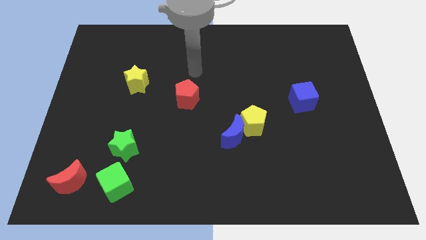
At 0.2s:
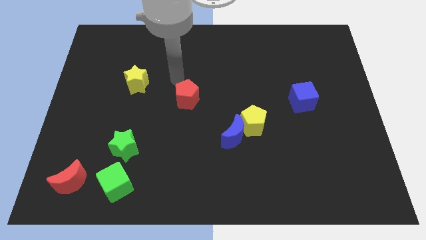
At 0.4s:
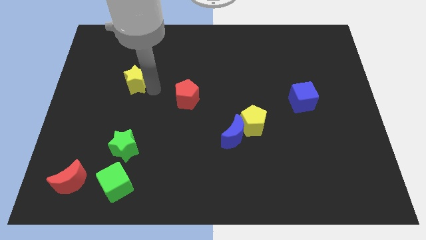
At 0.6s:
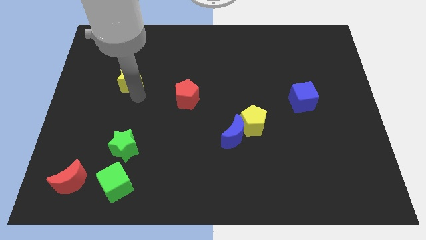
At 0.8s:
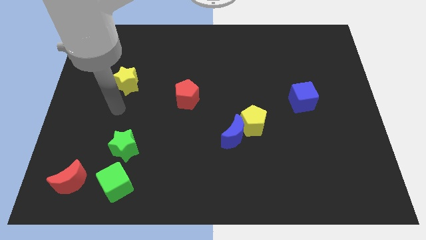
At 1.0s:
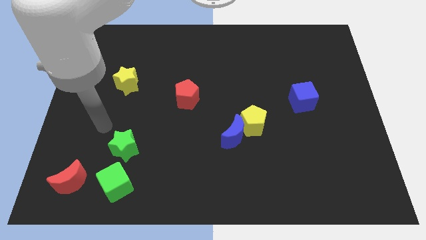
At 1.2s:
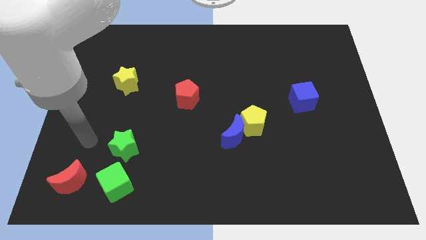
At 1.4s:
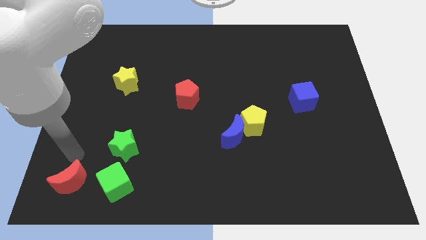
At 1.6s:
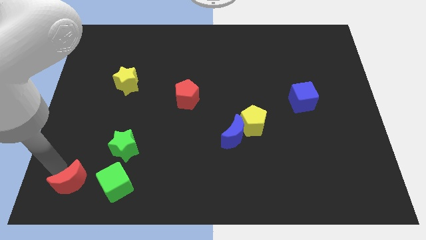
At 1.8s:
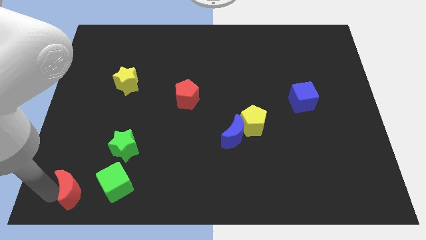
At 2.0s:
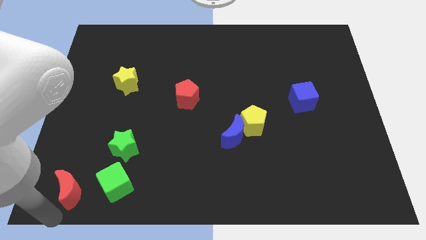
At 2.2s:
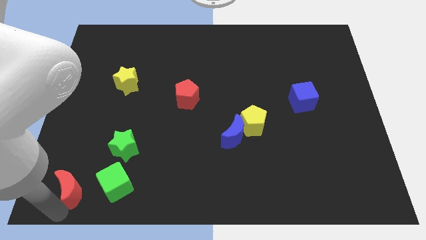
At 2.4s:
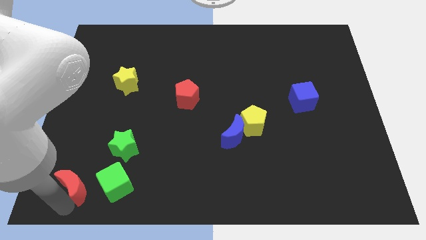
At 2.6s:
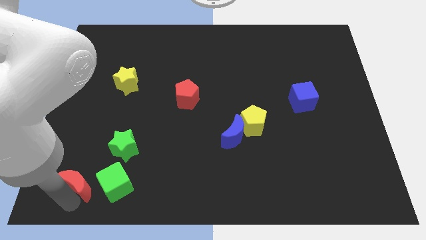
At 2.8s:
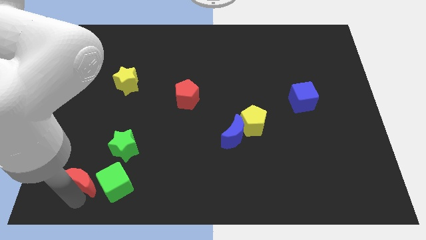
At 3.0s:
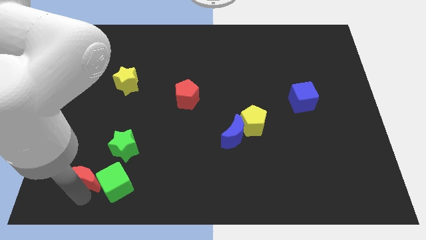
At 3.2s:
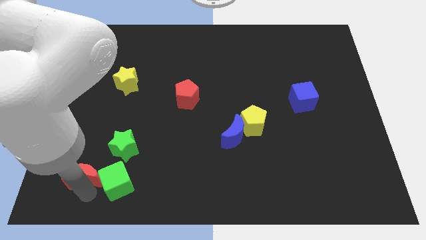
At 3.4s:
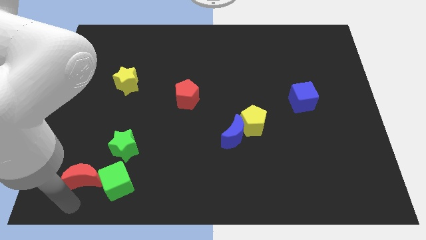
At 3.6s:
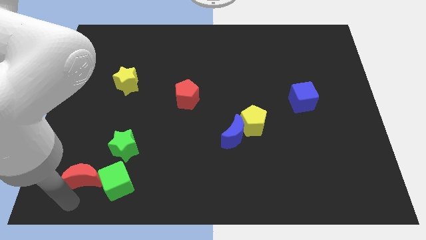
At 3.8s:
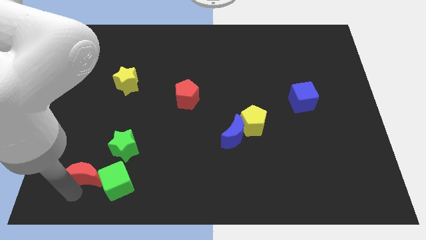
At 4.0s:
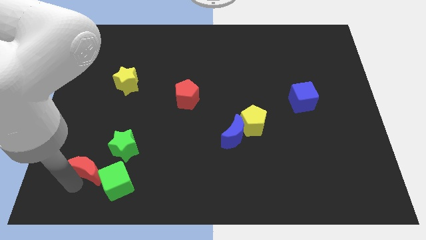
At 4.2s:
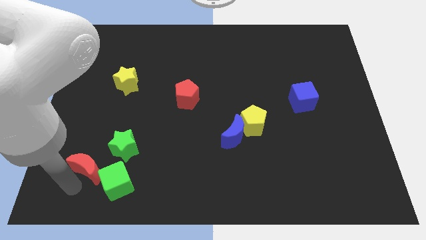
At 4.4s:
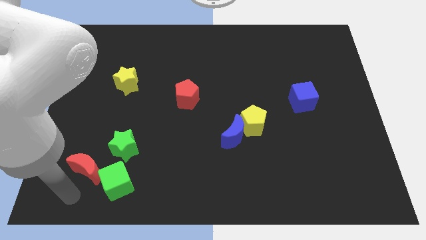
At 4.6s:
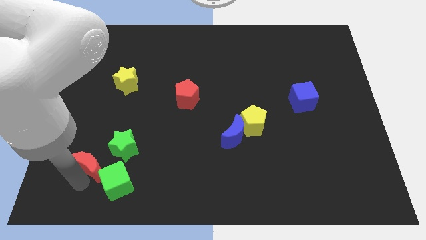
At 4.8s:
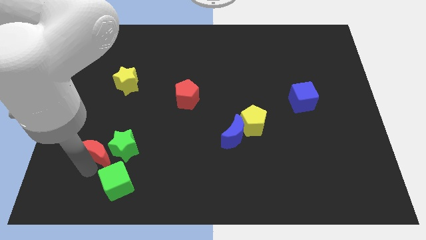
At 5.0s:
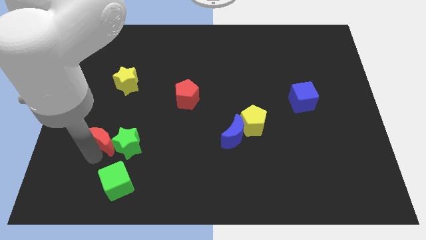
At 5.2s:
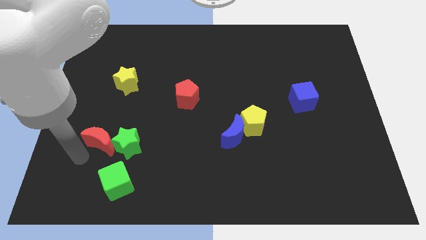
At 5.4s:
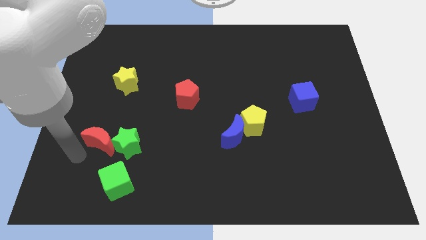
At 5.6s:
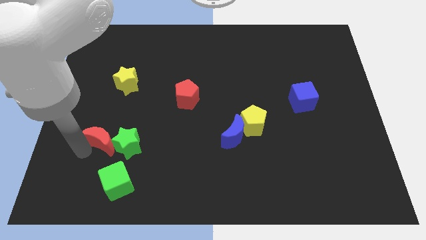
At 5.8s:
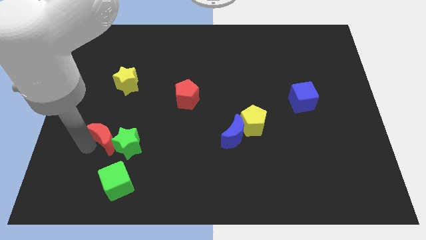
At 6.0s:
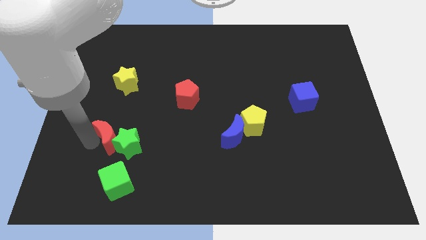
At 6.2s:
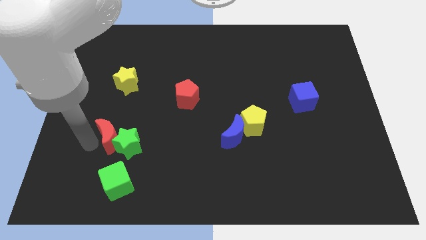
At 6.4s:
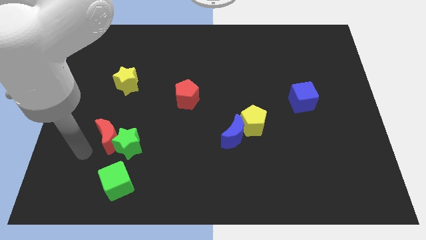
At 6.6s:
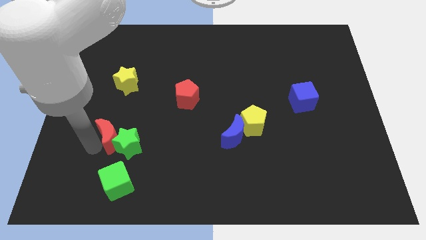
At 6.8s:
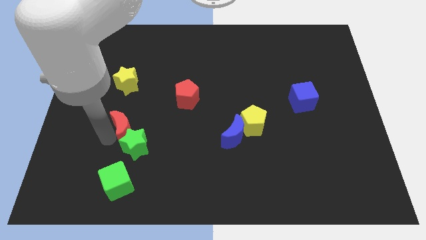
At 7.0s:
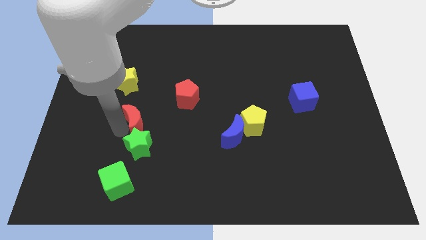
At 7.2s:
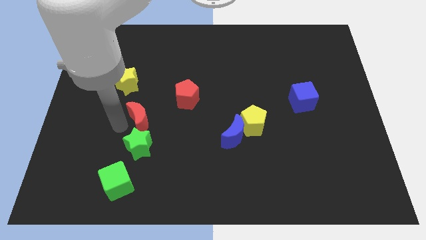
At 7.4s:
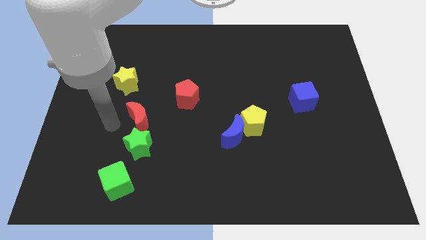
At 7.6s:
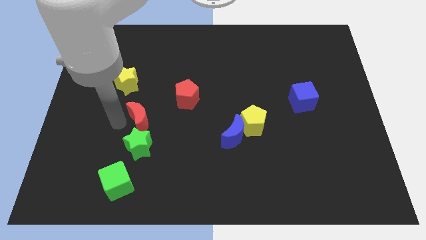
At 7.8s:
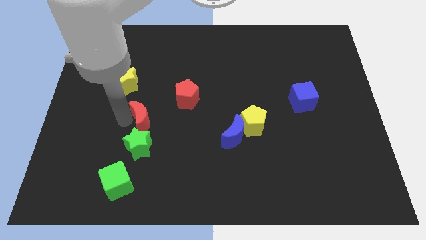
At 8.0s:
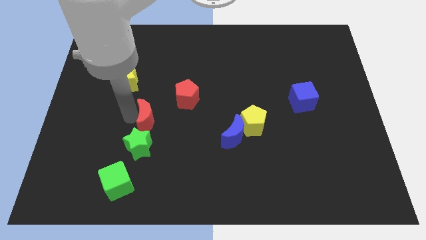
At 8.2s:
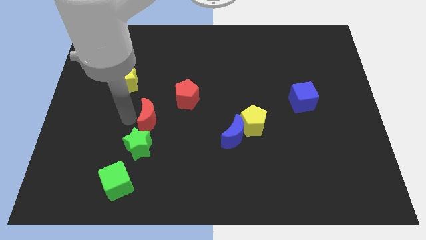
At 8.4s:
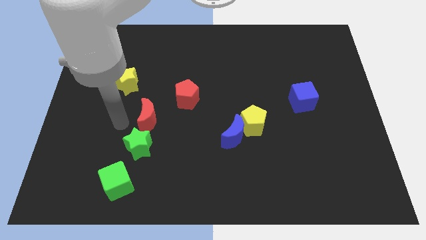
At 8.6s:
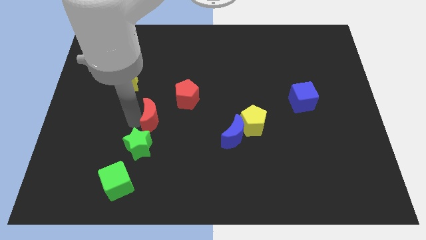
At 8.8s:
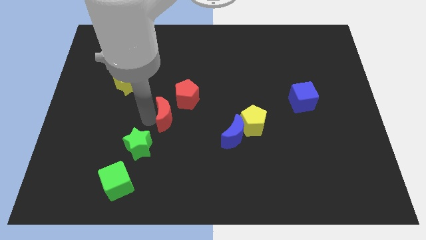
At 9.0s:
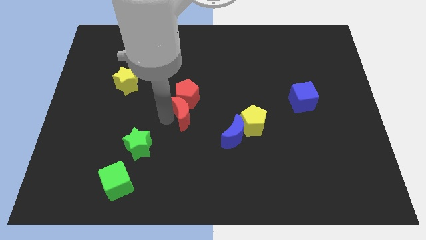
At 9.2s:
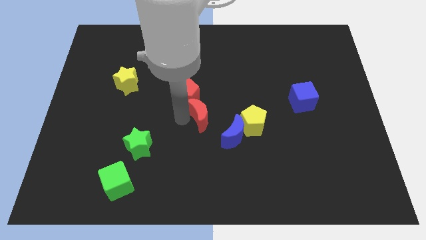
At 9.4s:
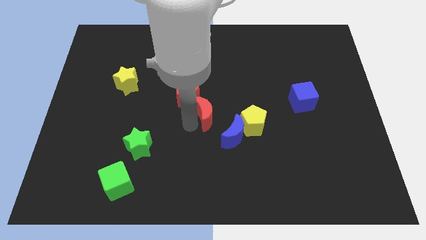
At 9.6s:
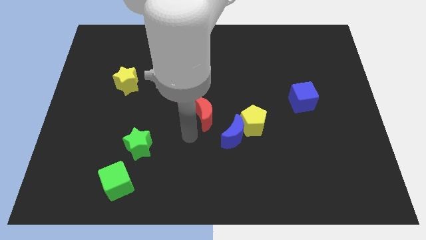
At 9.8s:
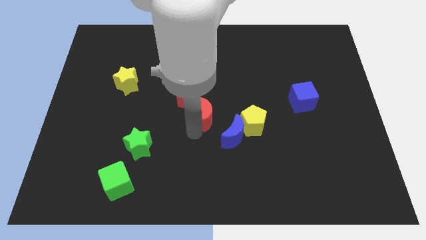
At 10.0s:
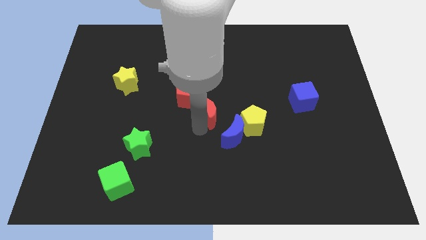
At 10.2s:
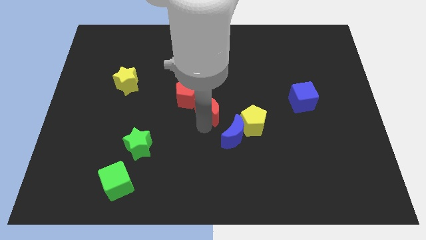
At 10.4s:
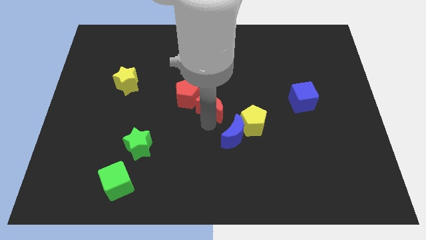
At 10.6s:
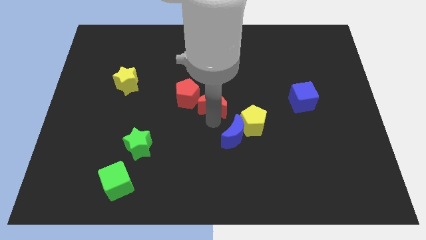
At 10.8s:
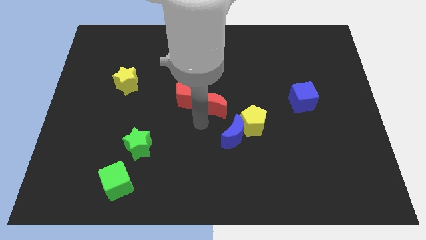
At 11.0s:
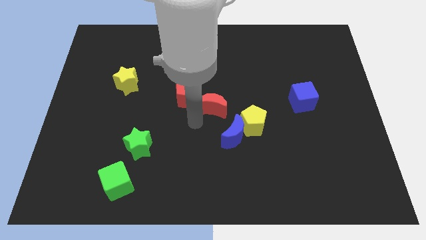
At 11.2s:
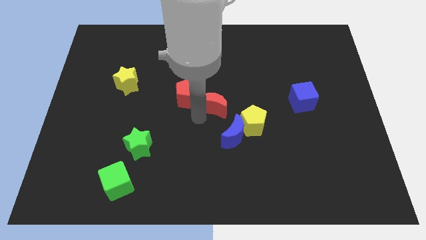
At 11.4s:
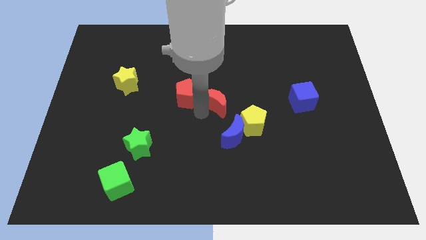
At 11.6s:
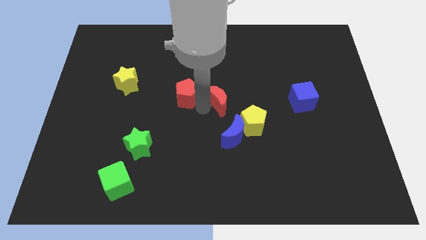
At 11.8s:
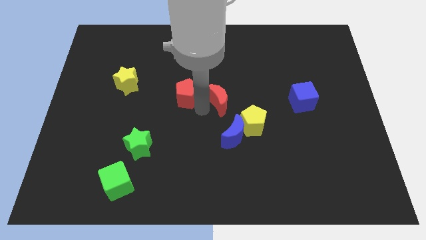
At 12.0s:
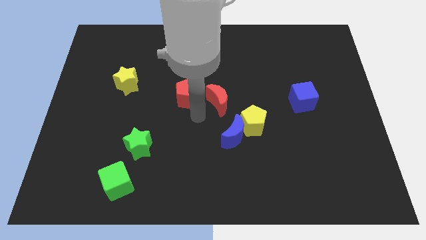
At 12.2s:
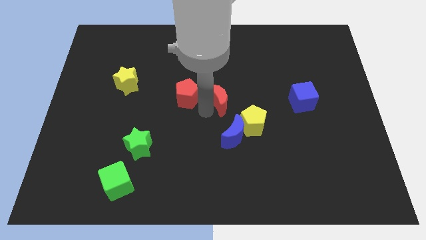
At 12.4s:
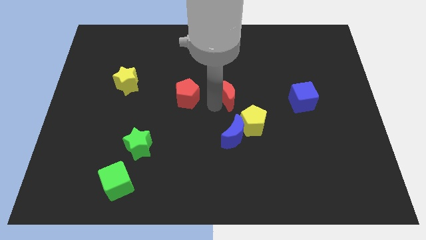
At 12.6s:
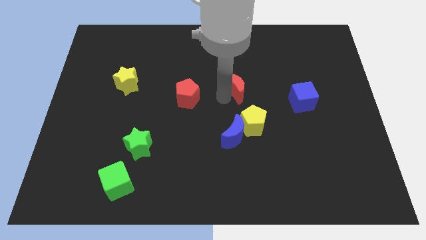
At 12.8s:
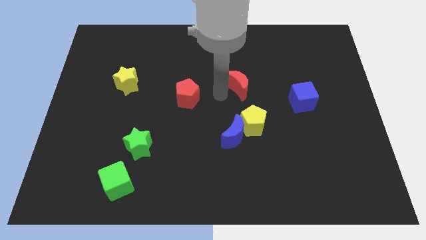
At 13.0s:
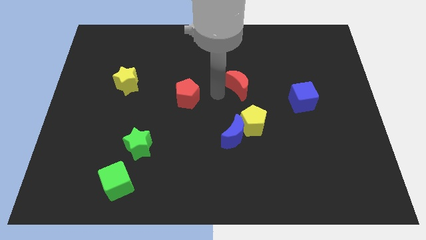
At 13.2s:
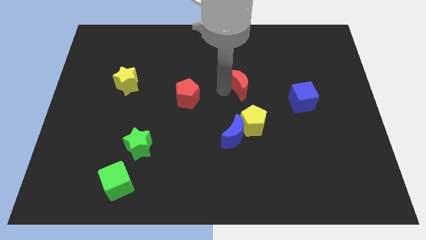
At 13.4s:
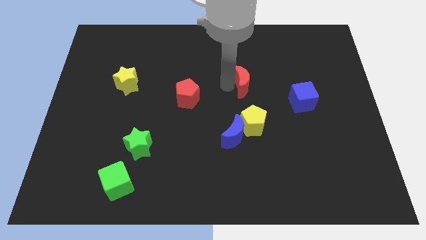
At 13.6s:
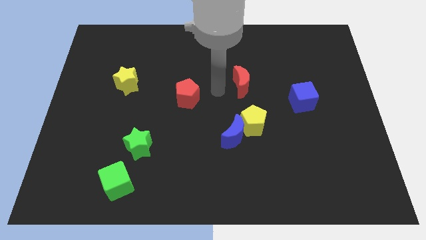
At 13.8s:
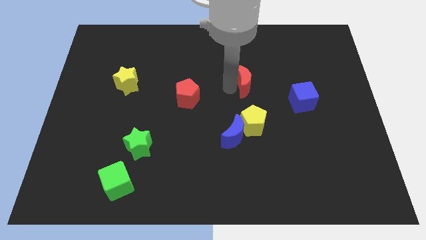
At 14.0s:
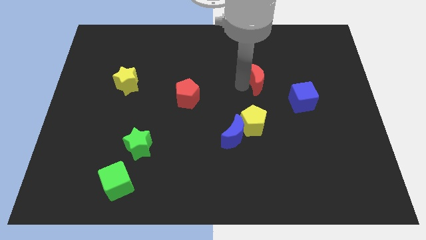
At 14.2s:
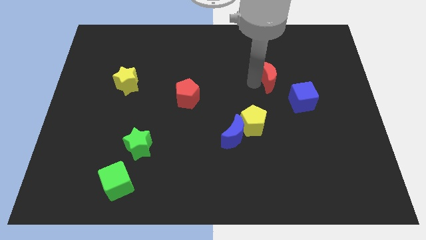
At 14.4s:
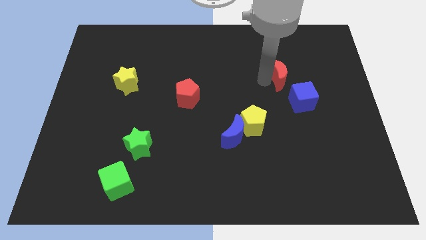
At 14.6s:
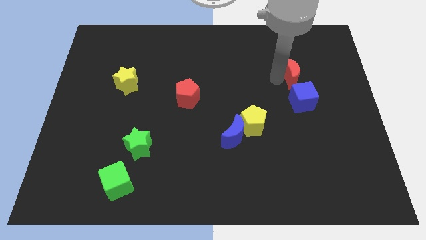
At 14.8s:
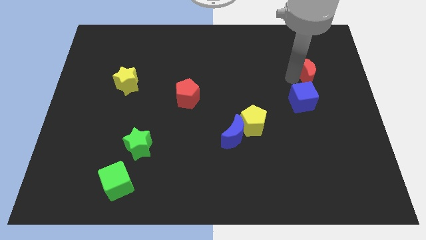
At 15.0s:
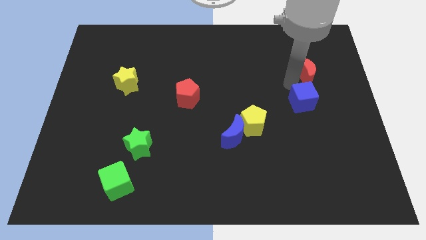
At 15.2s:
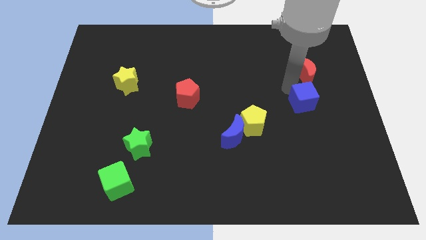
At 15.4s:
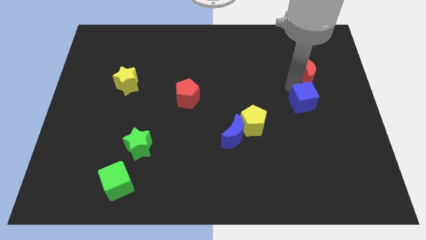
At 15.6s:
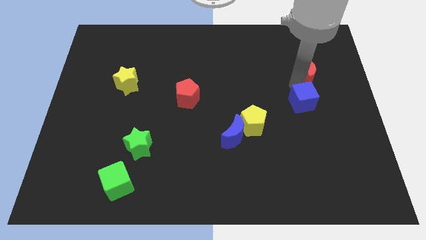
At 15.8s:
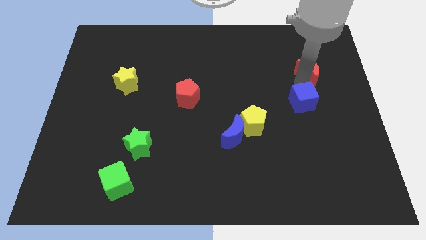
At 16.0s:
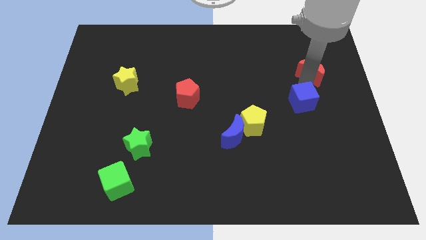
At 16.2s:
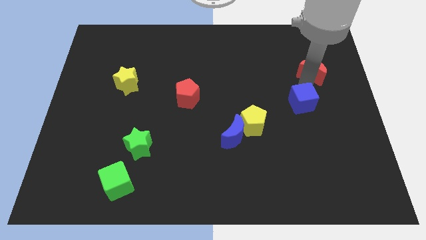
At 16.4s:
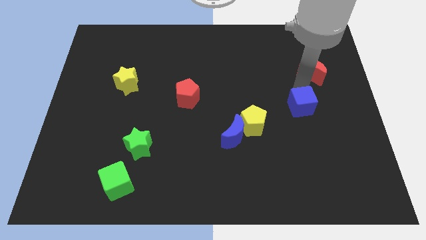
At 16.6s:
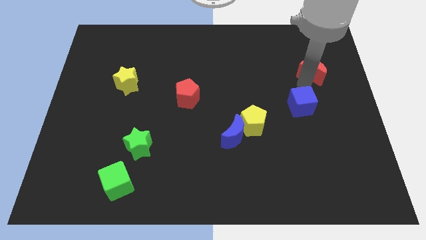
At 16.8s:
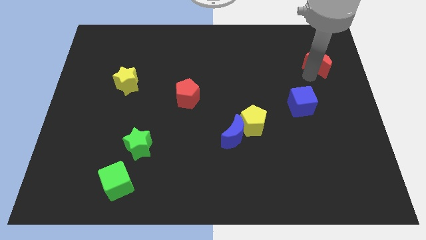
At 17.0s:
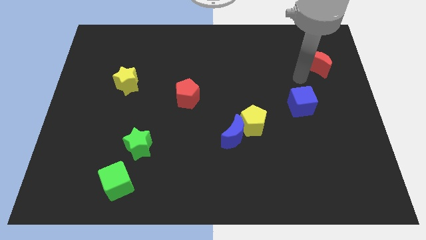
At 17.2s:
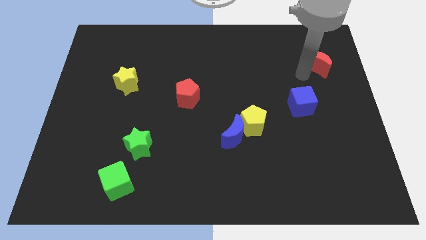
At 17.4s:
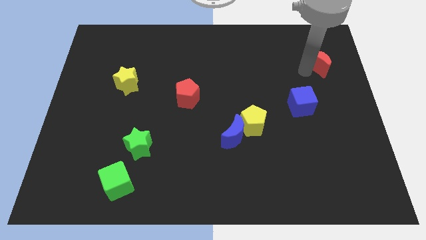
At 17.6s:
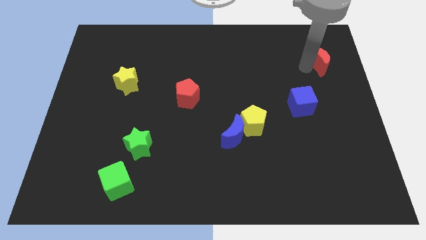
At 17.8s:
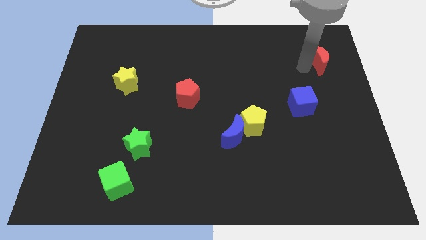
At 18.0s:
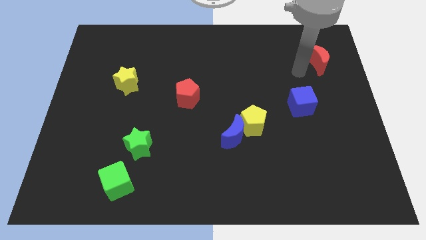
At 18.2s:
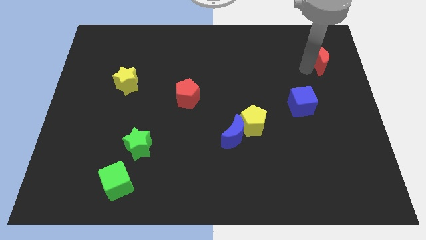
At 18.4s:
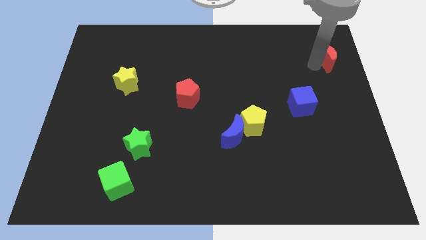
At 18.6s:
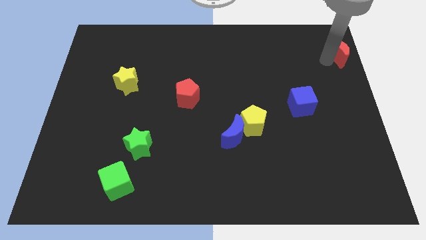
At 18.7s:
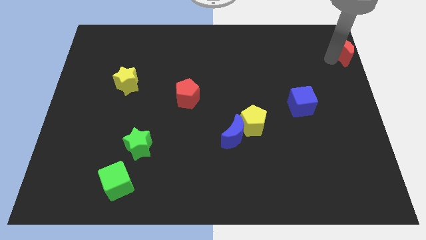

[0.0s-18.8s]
push the red moon to the top right corner
